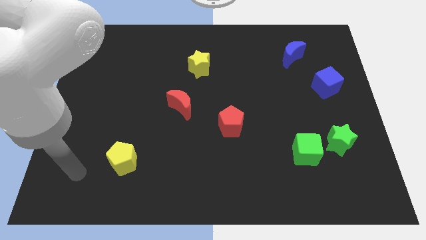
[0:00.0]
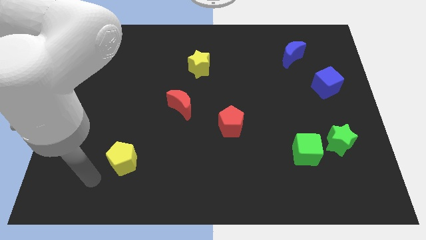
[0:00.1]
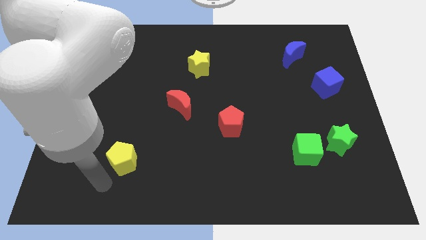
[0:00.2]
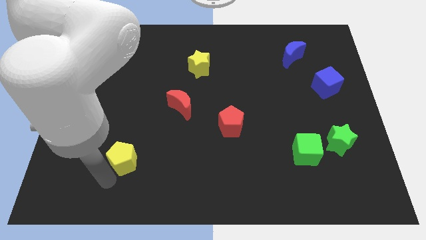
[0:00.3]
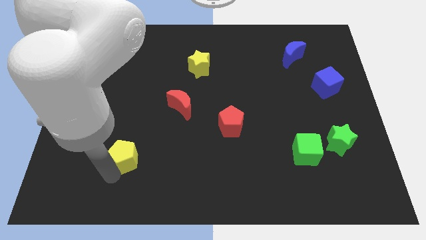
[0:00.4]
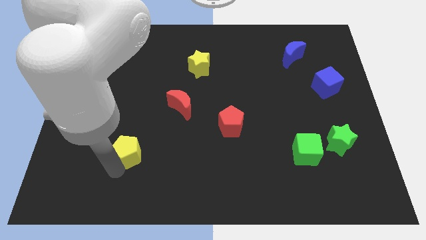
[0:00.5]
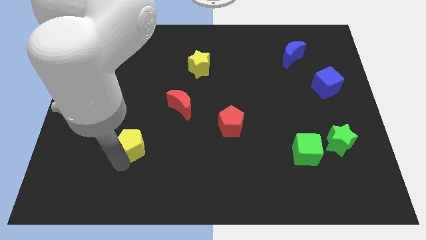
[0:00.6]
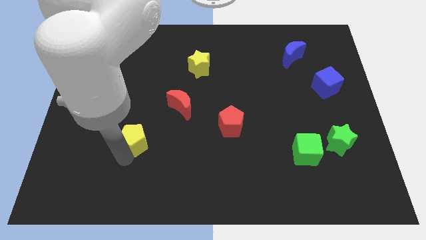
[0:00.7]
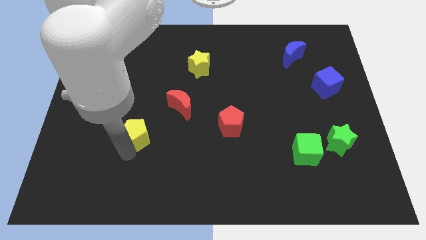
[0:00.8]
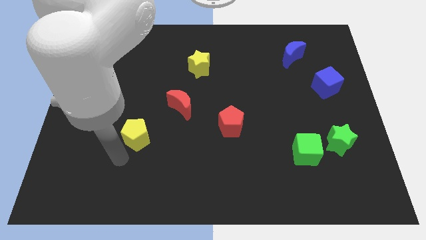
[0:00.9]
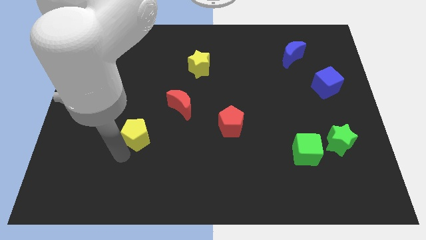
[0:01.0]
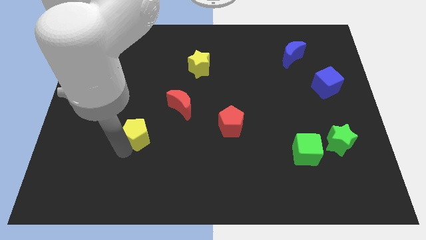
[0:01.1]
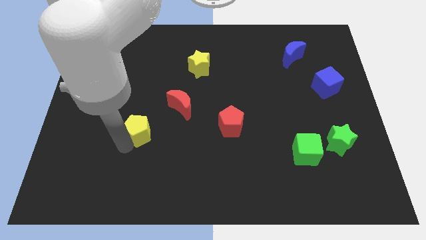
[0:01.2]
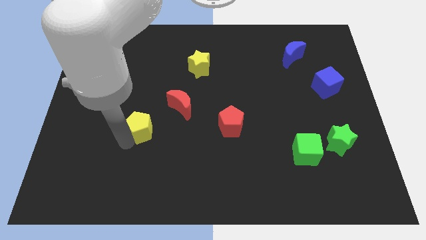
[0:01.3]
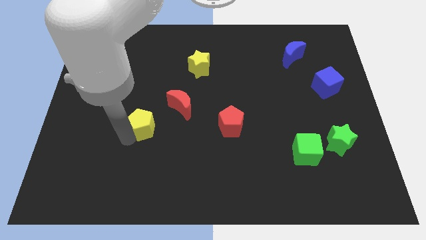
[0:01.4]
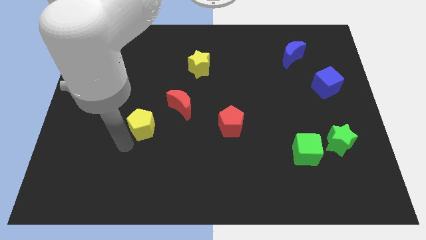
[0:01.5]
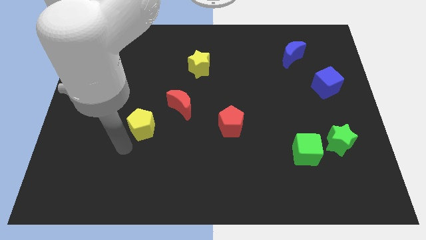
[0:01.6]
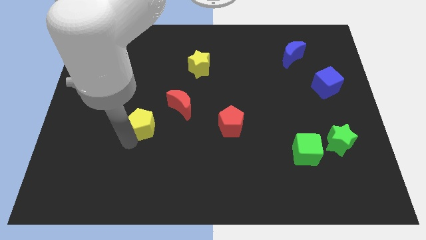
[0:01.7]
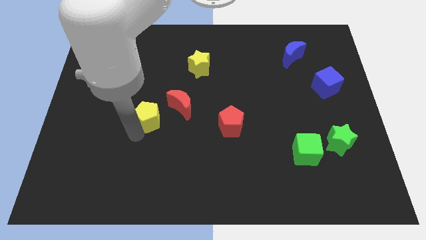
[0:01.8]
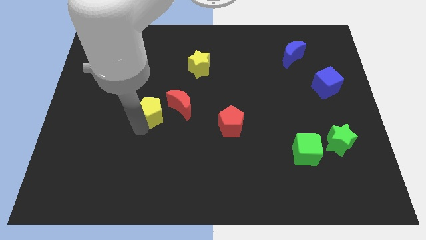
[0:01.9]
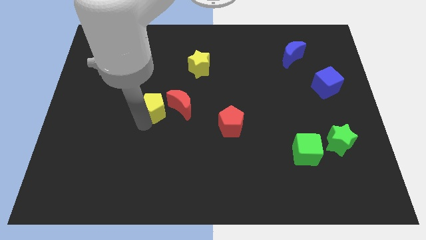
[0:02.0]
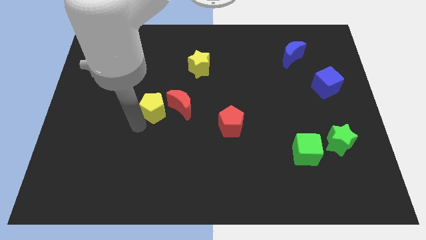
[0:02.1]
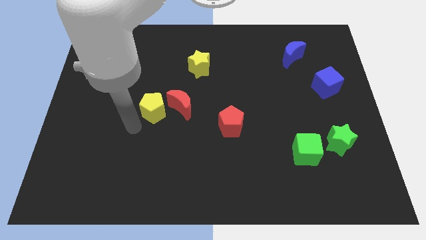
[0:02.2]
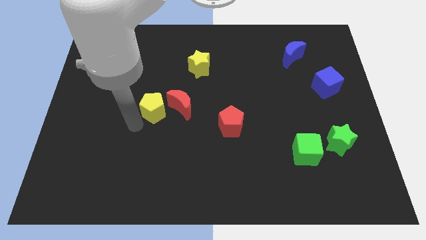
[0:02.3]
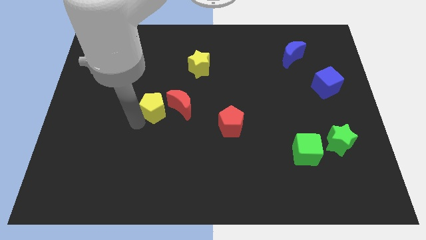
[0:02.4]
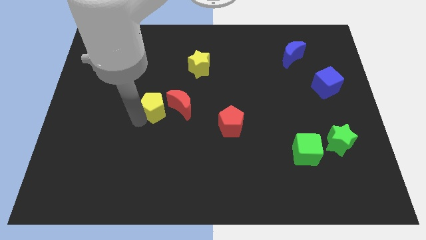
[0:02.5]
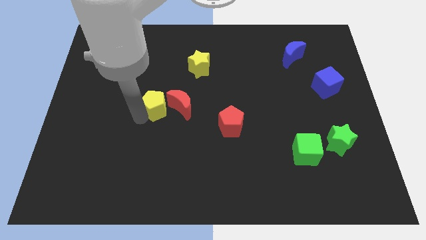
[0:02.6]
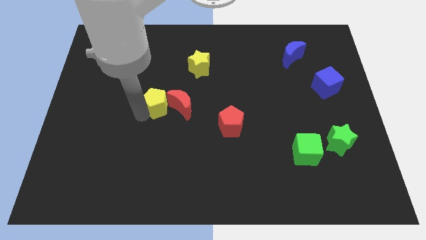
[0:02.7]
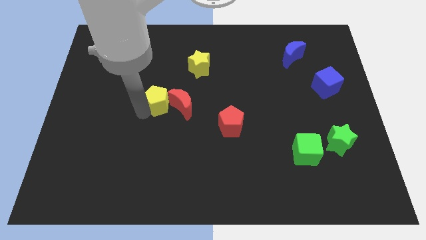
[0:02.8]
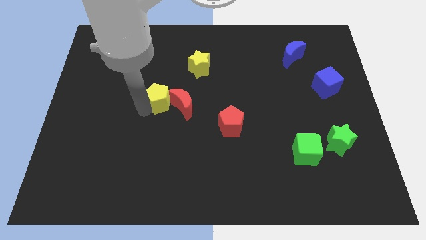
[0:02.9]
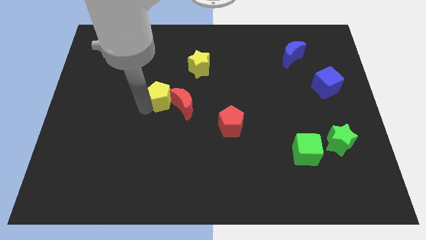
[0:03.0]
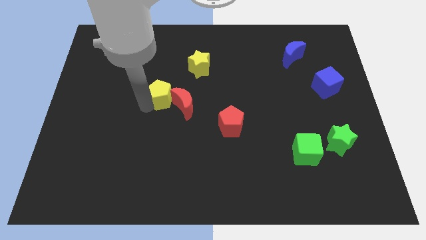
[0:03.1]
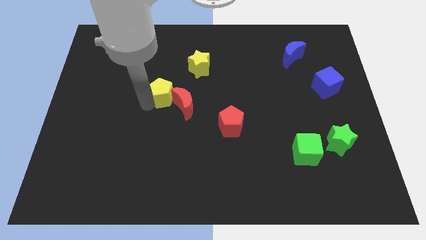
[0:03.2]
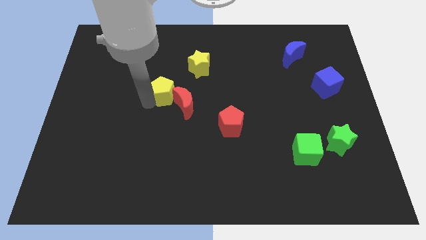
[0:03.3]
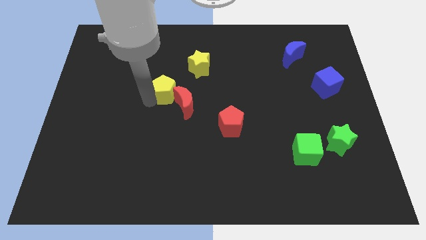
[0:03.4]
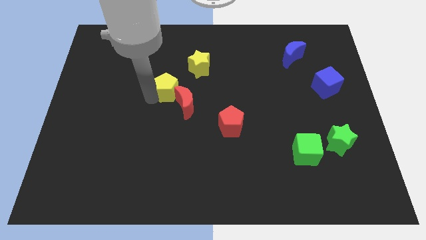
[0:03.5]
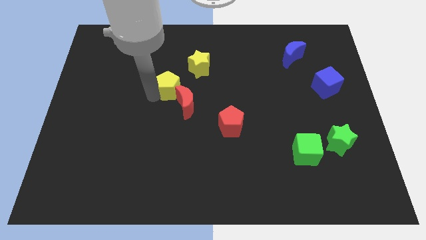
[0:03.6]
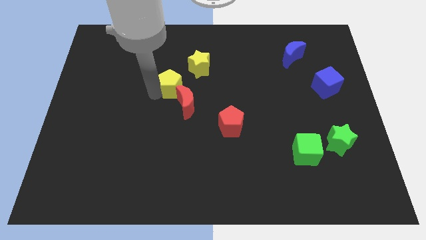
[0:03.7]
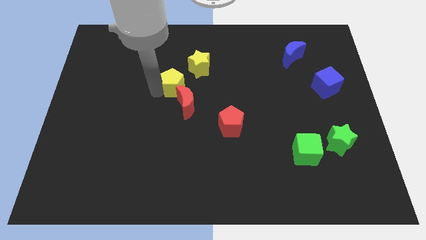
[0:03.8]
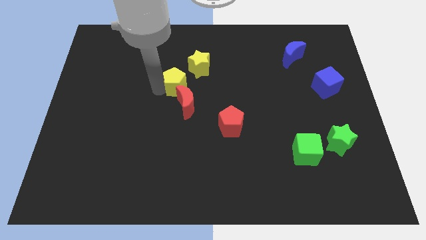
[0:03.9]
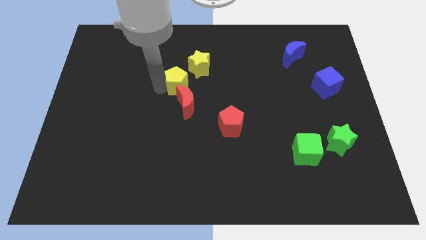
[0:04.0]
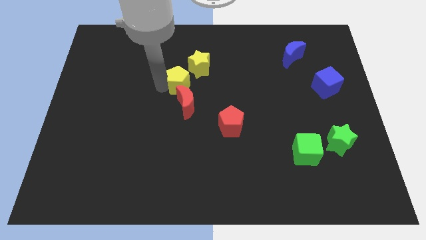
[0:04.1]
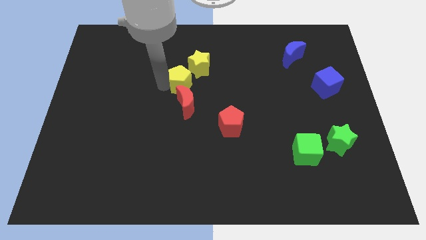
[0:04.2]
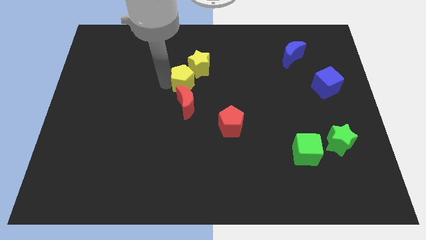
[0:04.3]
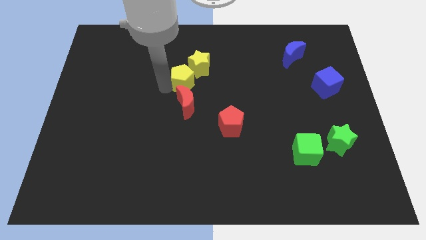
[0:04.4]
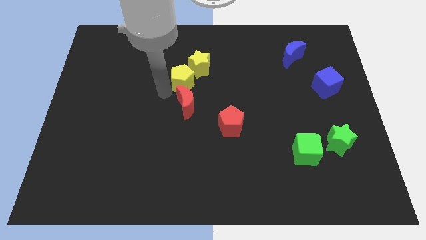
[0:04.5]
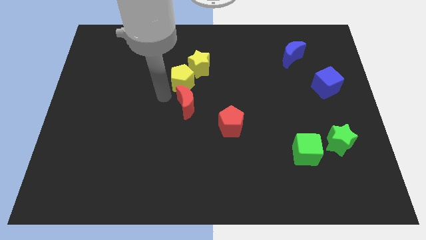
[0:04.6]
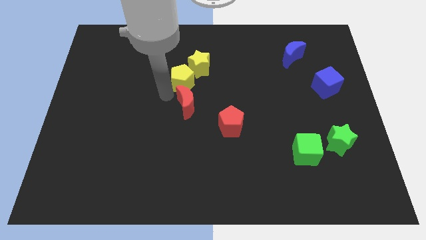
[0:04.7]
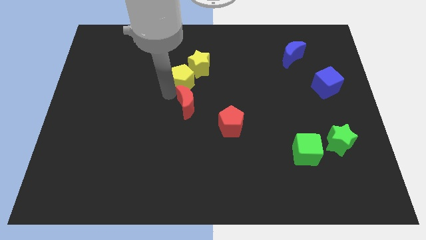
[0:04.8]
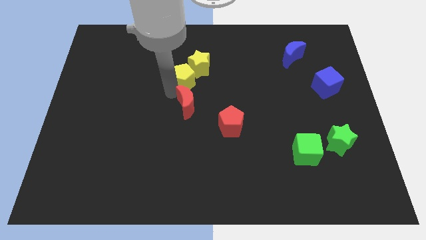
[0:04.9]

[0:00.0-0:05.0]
push the yellow pentagon next to the yellow star

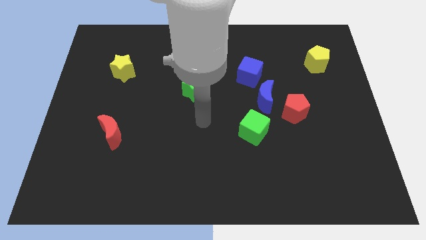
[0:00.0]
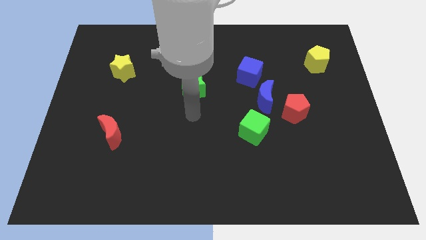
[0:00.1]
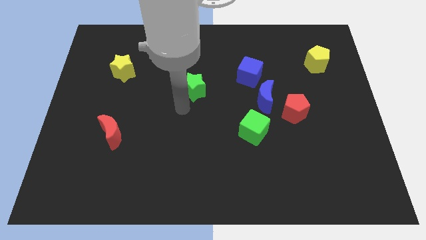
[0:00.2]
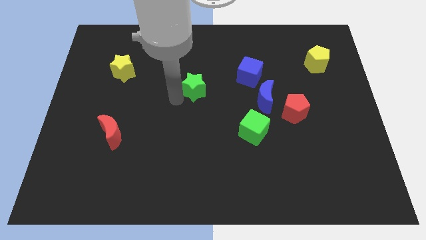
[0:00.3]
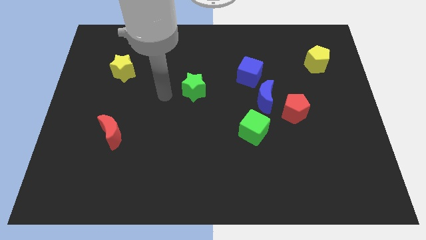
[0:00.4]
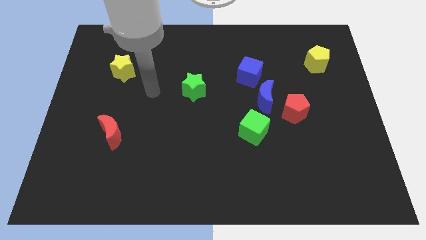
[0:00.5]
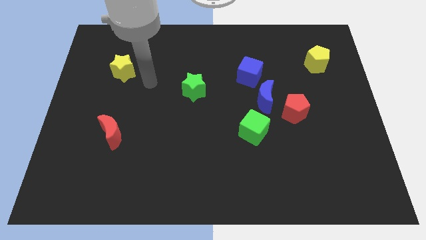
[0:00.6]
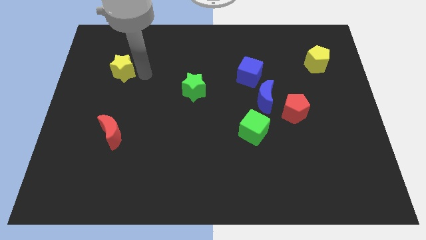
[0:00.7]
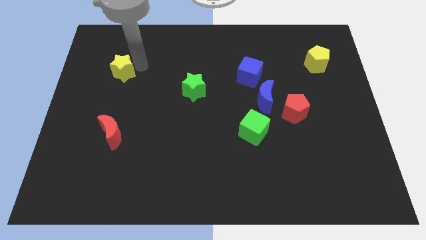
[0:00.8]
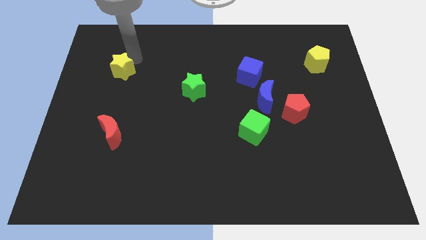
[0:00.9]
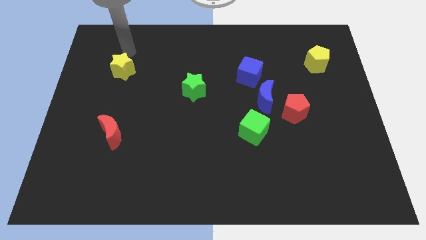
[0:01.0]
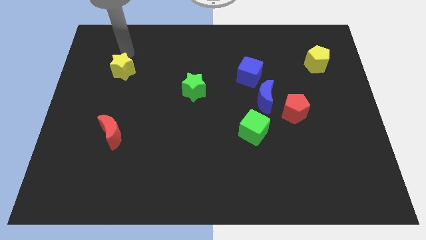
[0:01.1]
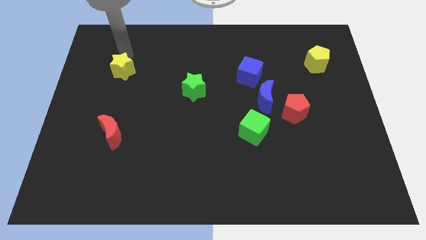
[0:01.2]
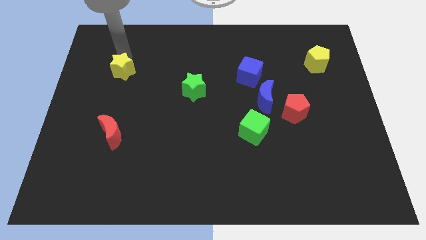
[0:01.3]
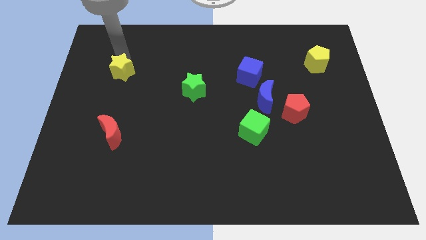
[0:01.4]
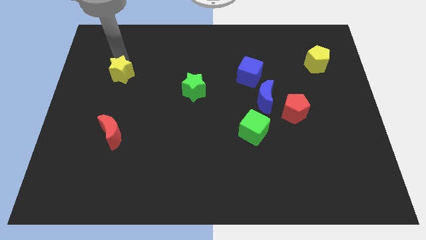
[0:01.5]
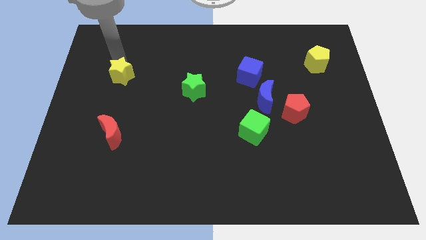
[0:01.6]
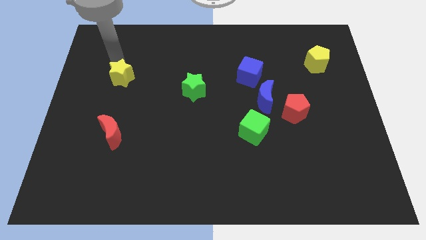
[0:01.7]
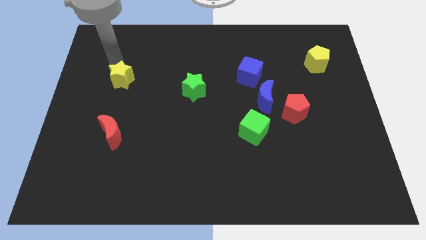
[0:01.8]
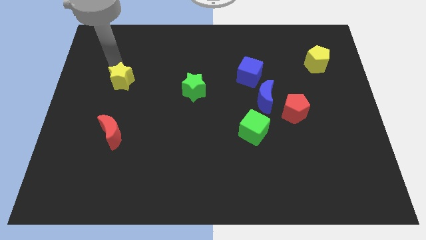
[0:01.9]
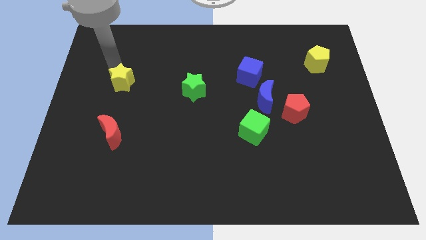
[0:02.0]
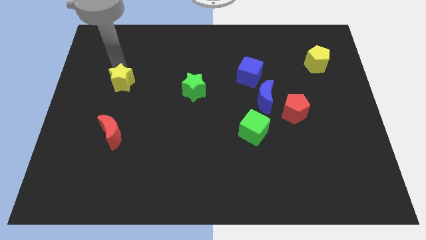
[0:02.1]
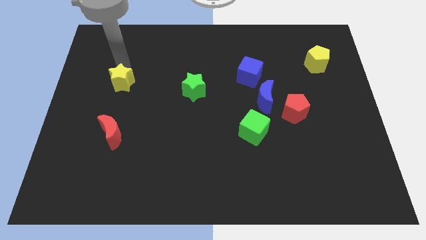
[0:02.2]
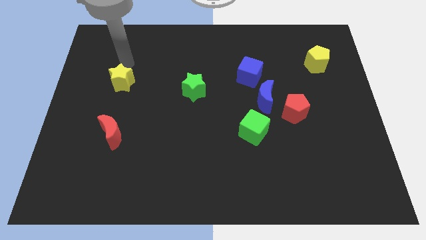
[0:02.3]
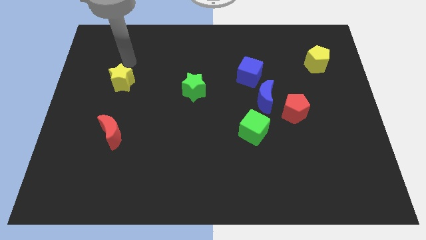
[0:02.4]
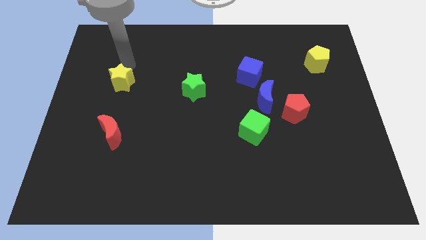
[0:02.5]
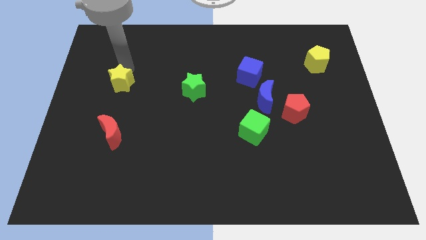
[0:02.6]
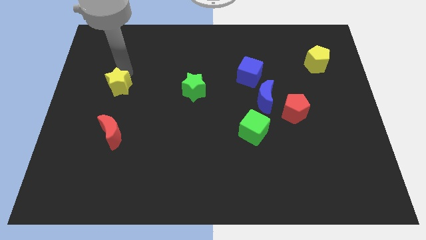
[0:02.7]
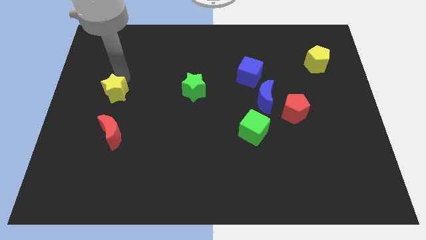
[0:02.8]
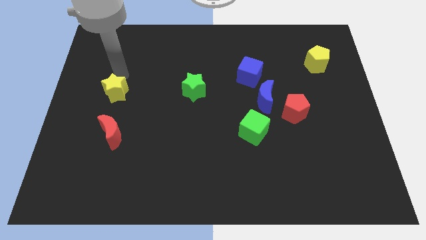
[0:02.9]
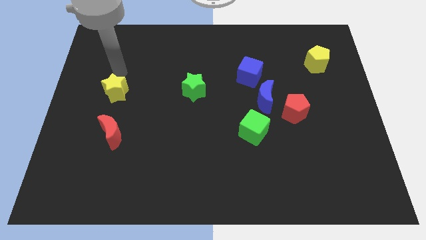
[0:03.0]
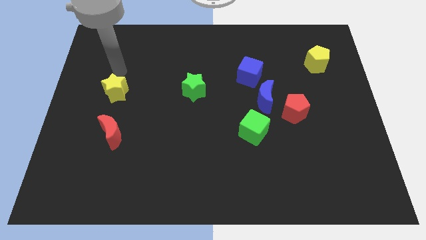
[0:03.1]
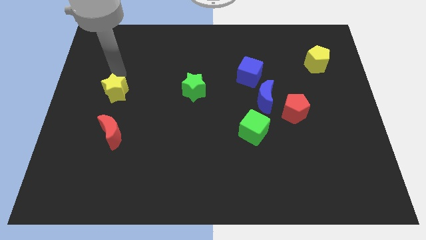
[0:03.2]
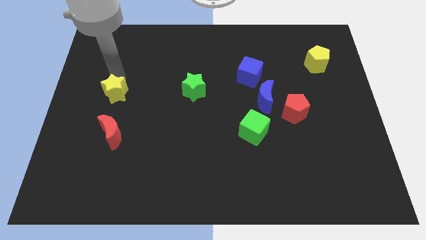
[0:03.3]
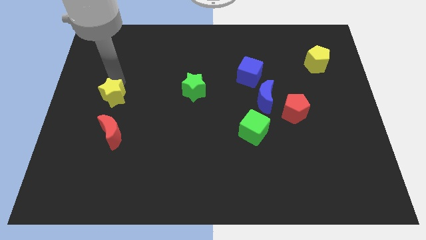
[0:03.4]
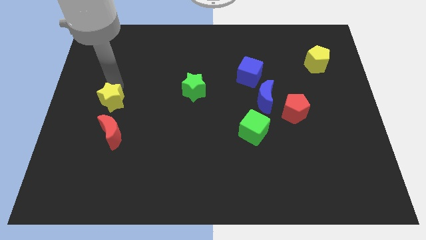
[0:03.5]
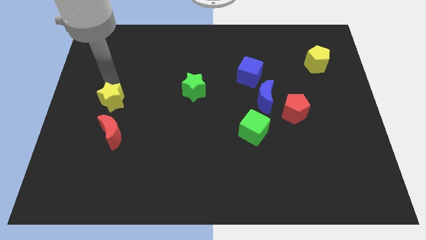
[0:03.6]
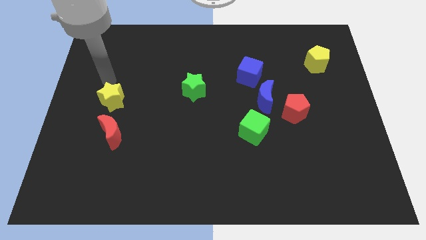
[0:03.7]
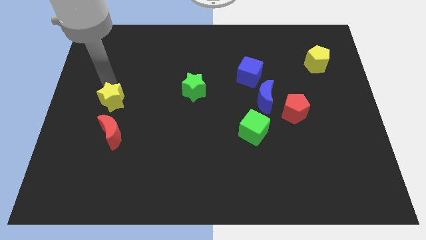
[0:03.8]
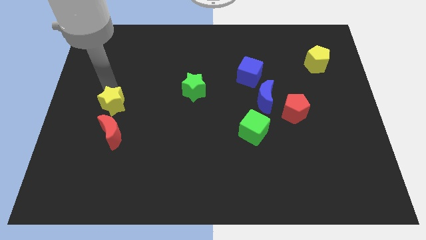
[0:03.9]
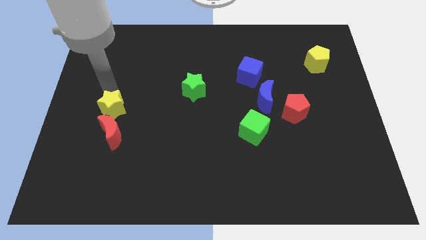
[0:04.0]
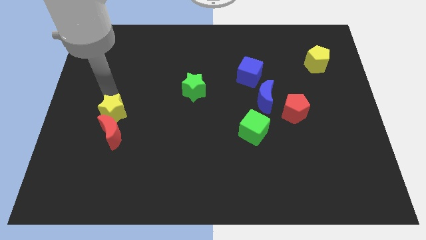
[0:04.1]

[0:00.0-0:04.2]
slide the yellow star close to the red moon
